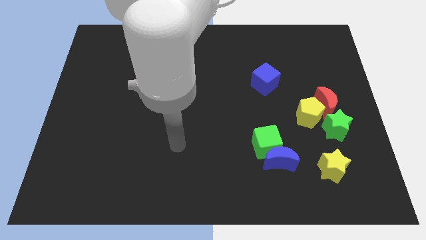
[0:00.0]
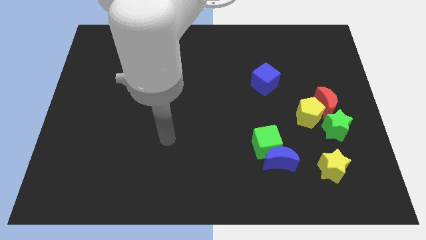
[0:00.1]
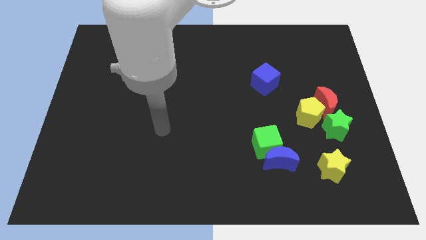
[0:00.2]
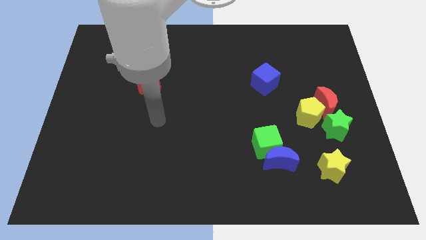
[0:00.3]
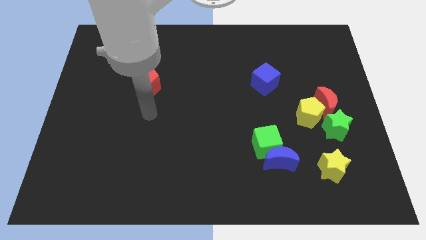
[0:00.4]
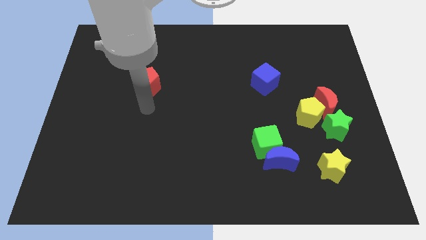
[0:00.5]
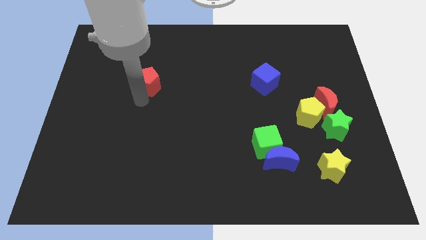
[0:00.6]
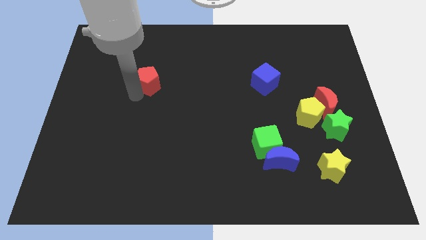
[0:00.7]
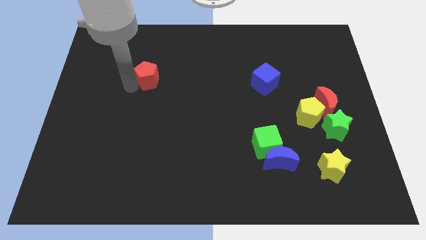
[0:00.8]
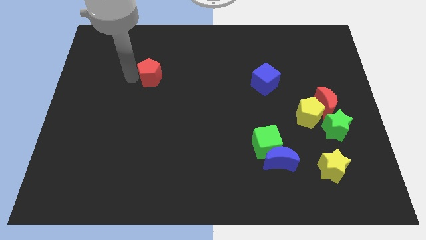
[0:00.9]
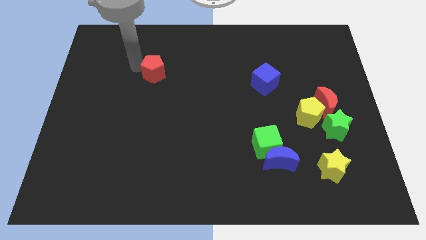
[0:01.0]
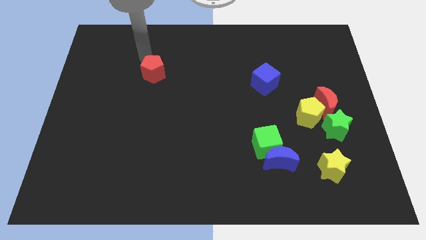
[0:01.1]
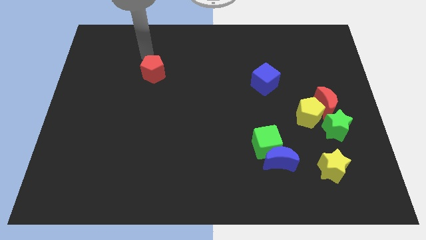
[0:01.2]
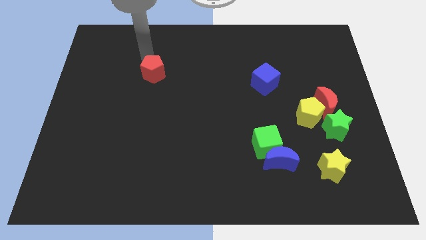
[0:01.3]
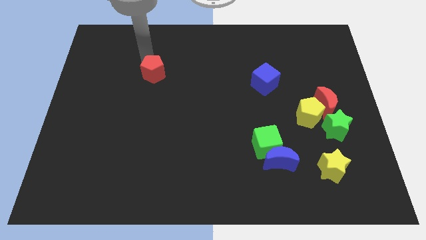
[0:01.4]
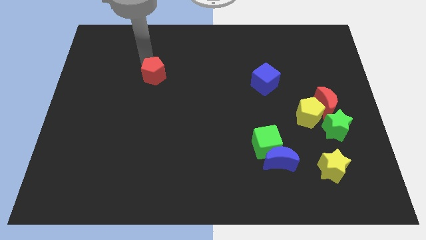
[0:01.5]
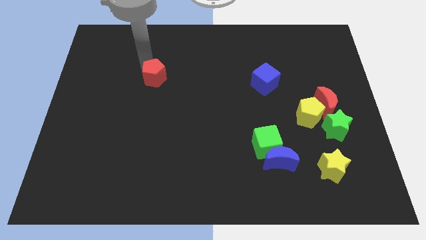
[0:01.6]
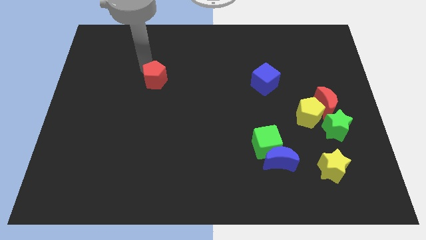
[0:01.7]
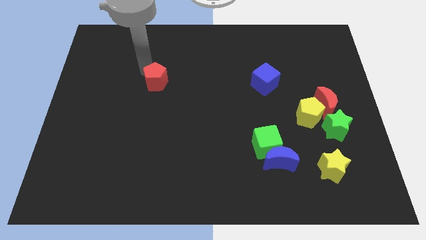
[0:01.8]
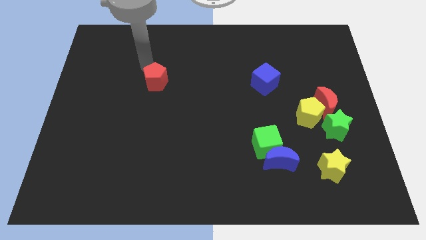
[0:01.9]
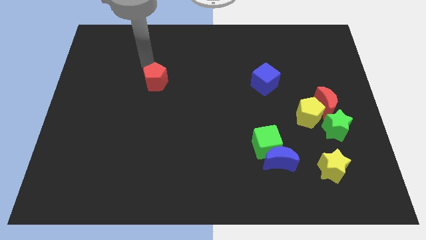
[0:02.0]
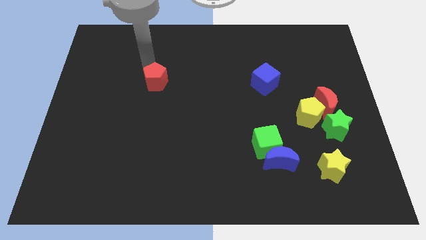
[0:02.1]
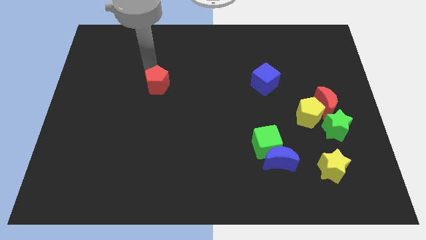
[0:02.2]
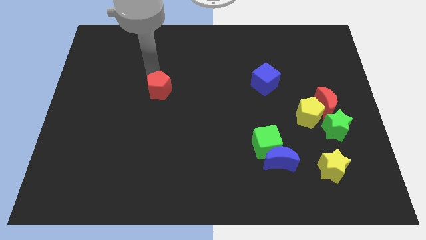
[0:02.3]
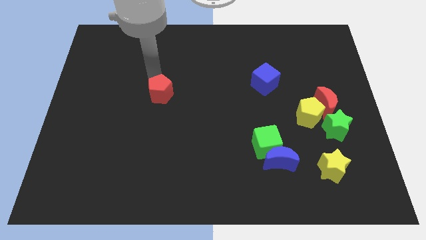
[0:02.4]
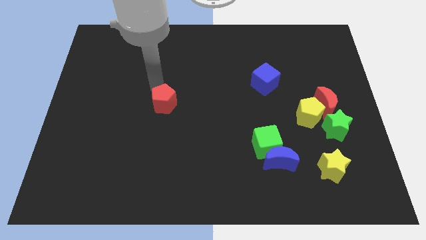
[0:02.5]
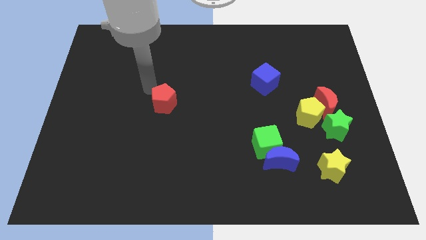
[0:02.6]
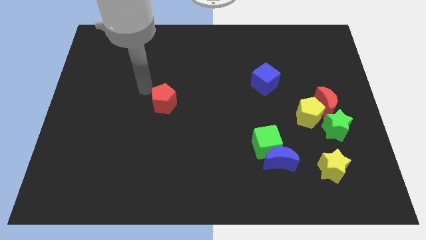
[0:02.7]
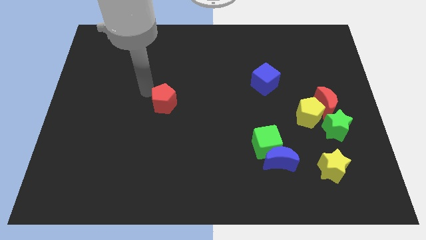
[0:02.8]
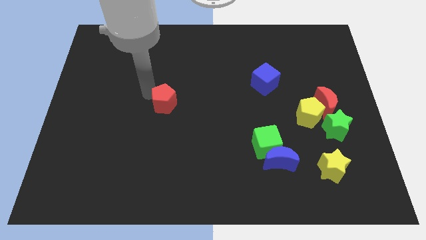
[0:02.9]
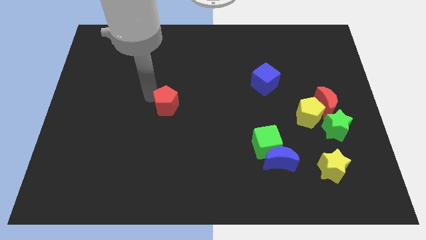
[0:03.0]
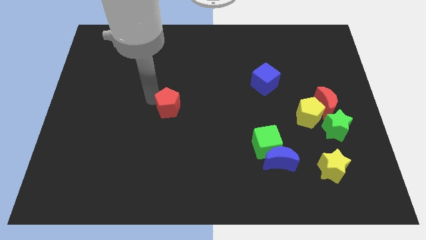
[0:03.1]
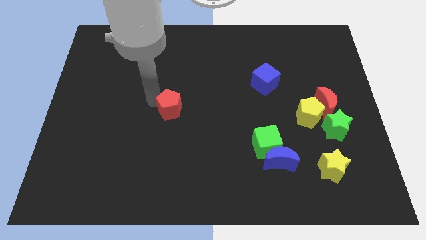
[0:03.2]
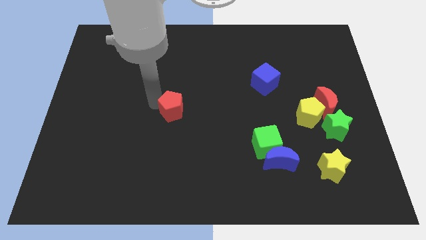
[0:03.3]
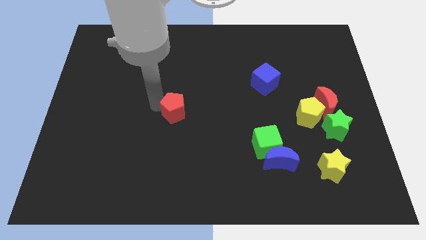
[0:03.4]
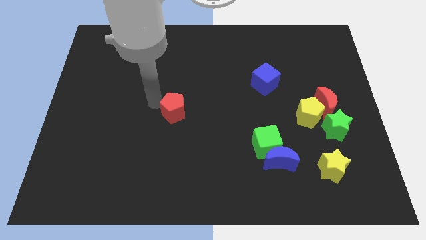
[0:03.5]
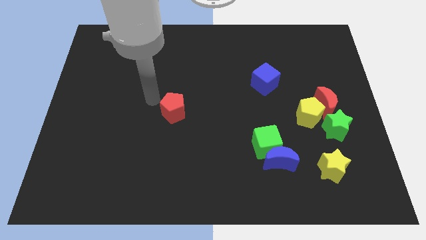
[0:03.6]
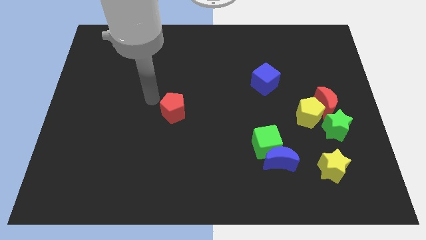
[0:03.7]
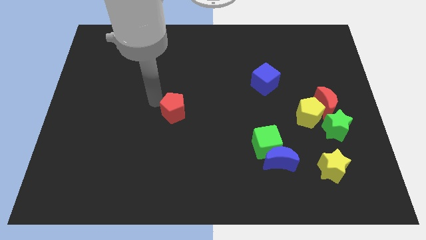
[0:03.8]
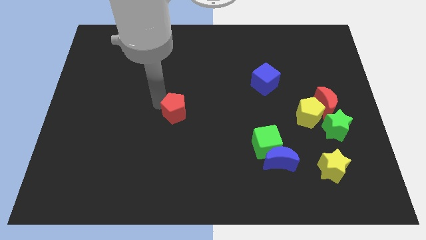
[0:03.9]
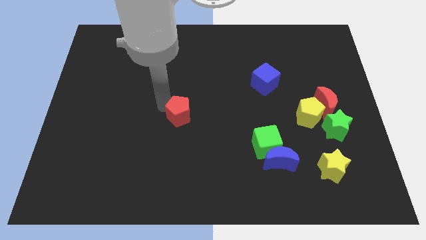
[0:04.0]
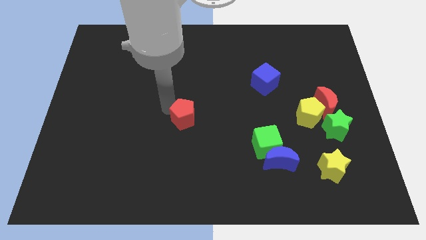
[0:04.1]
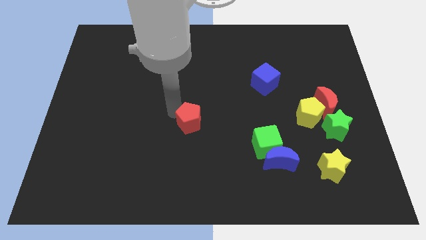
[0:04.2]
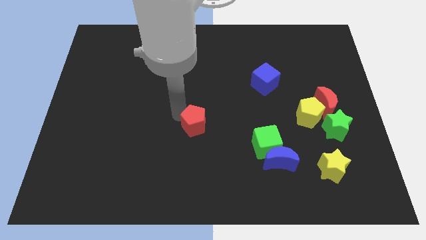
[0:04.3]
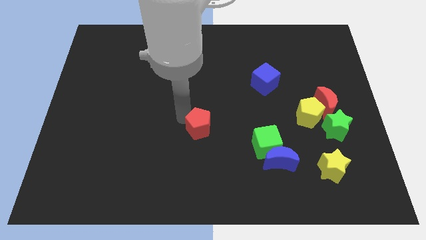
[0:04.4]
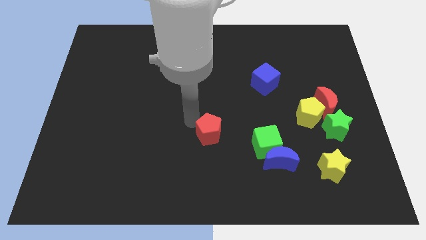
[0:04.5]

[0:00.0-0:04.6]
slide the red pentagon downwards and then to the right

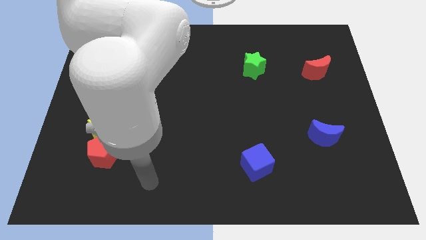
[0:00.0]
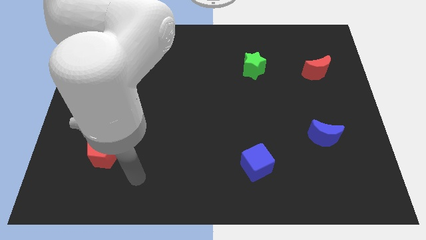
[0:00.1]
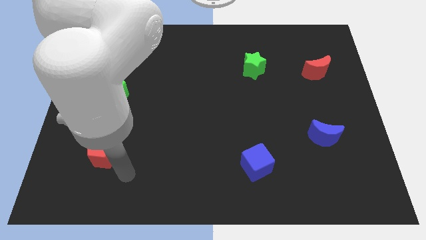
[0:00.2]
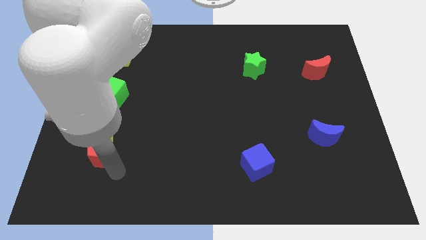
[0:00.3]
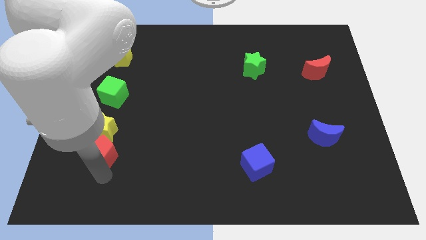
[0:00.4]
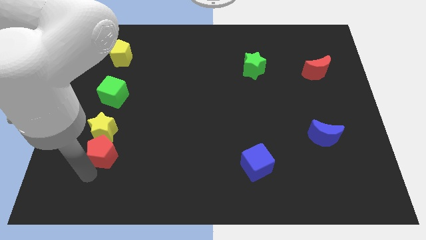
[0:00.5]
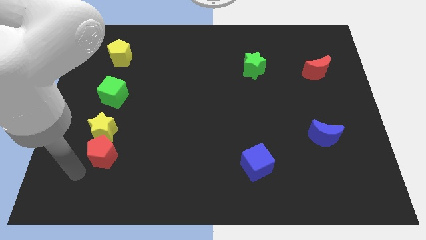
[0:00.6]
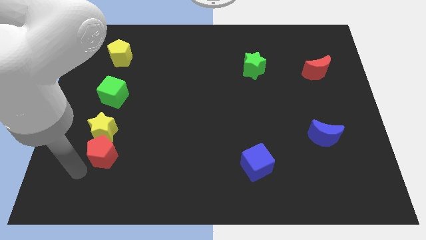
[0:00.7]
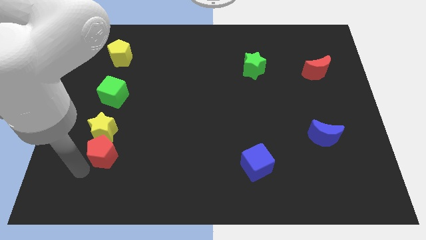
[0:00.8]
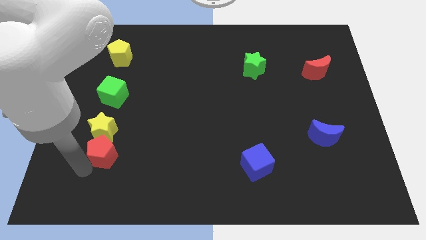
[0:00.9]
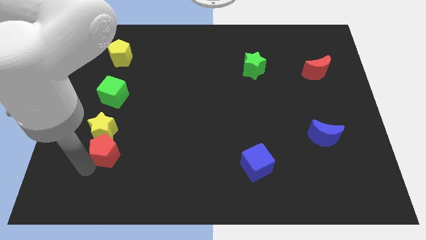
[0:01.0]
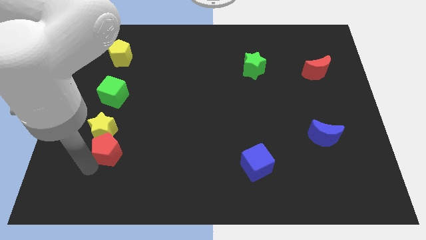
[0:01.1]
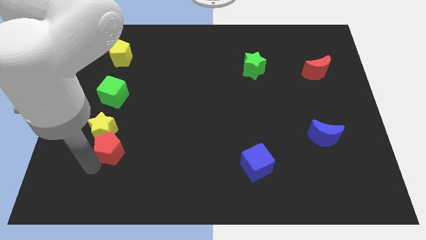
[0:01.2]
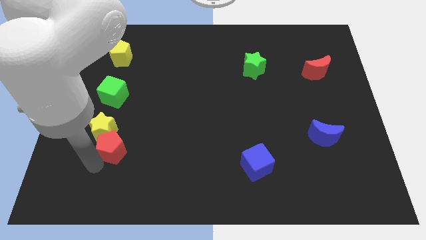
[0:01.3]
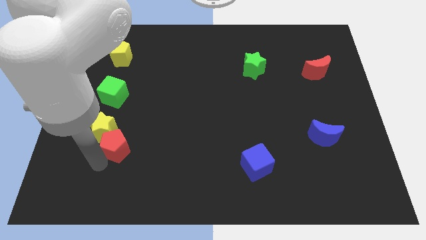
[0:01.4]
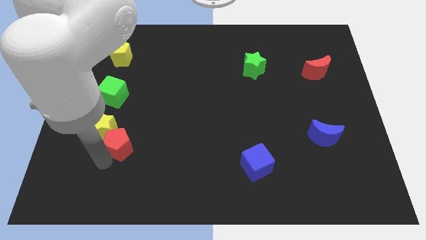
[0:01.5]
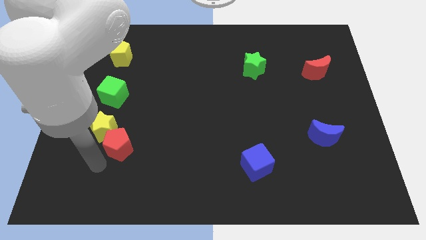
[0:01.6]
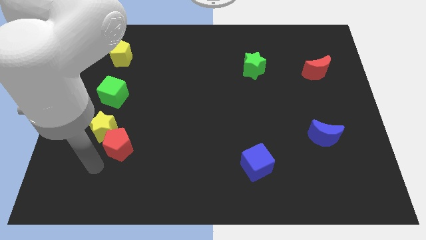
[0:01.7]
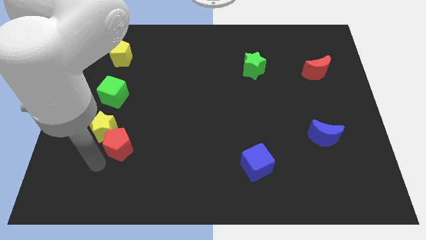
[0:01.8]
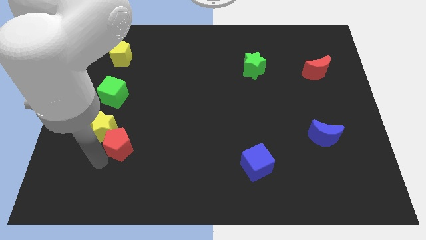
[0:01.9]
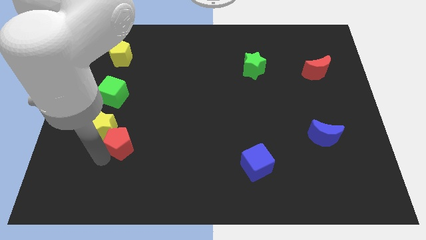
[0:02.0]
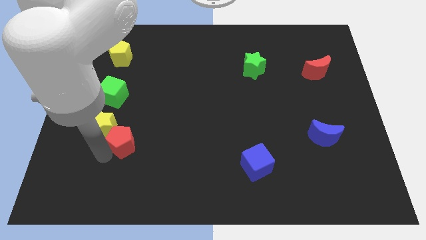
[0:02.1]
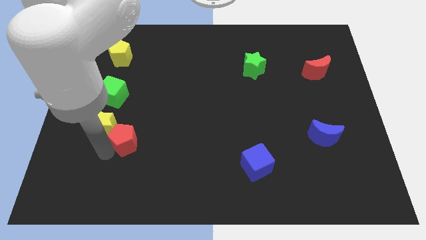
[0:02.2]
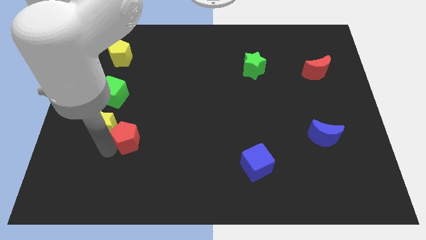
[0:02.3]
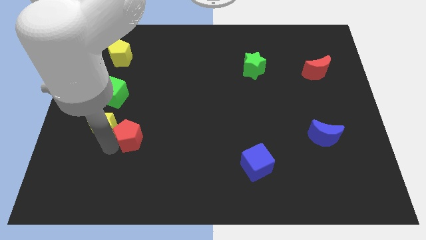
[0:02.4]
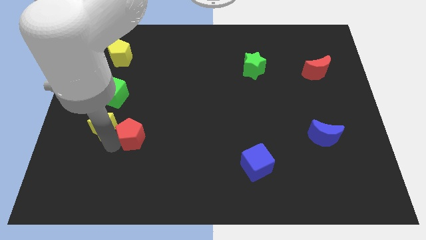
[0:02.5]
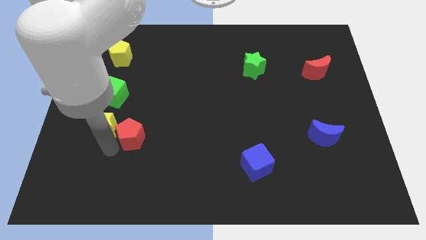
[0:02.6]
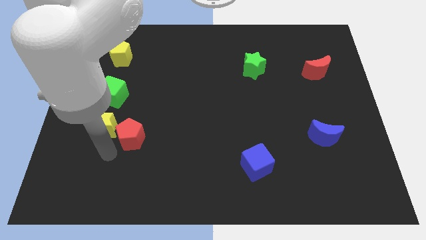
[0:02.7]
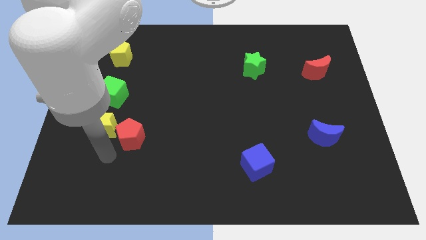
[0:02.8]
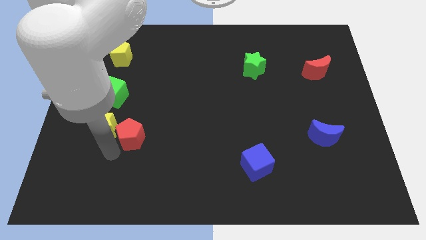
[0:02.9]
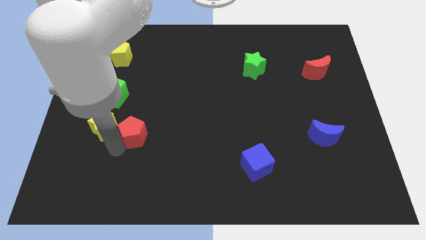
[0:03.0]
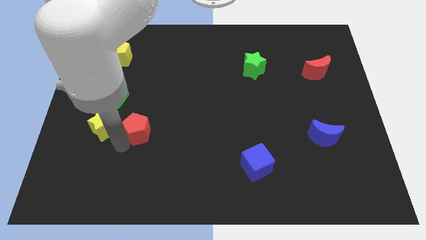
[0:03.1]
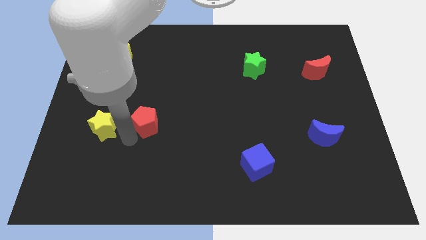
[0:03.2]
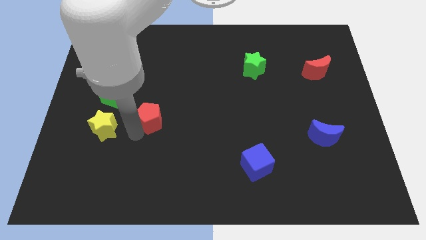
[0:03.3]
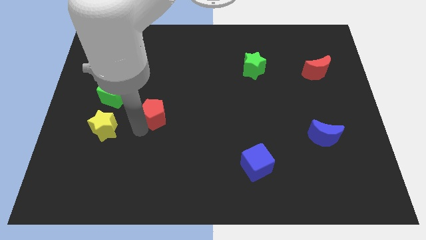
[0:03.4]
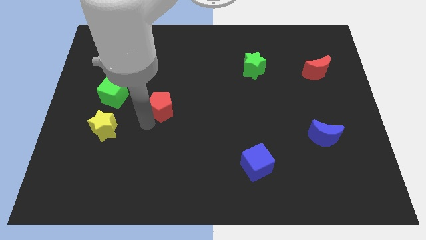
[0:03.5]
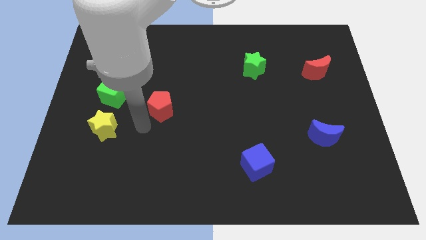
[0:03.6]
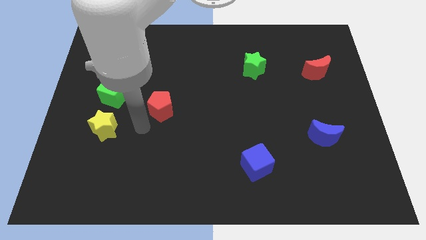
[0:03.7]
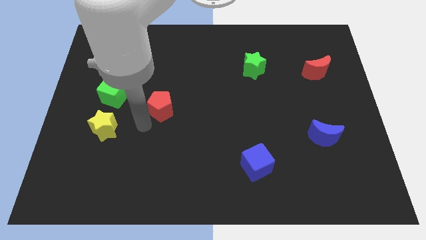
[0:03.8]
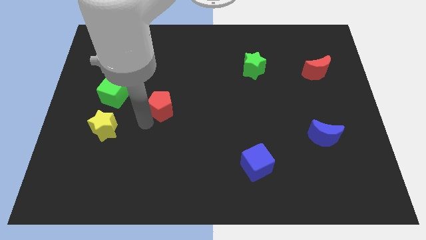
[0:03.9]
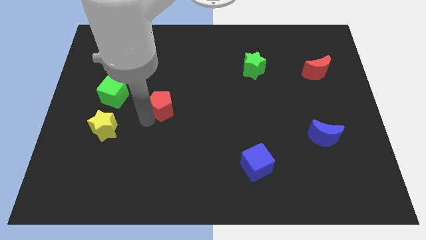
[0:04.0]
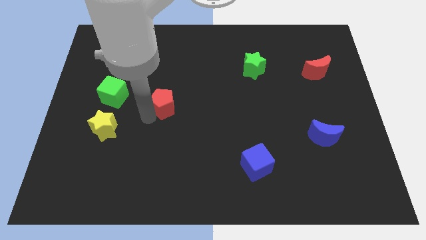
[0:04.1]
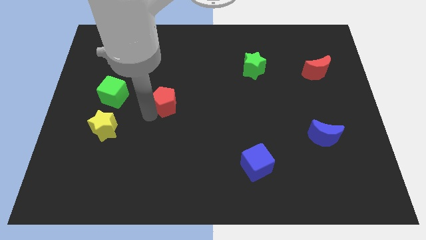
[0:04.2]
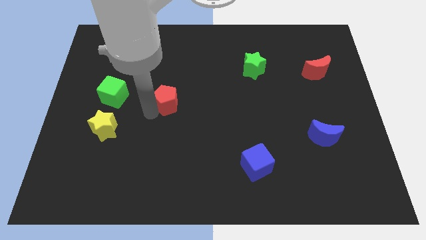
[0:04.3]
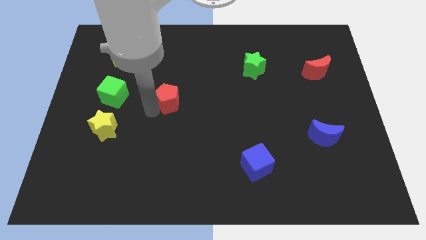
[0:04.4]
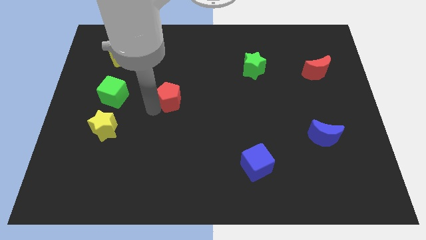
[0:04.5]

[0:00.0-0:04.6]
move the red pentagon diagonally up and right
